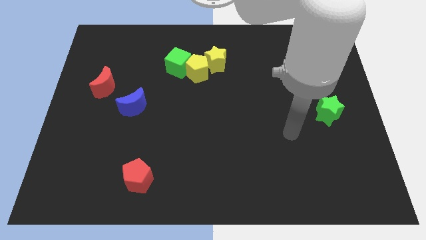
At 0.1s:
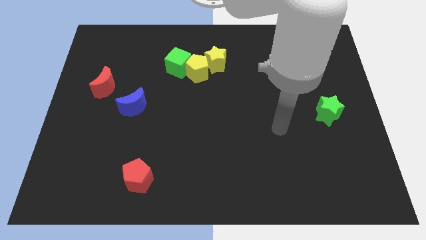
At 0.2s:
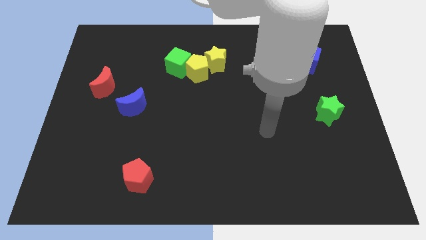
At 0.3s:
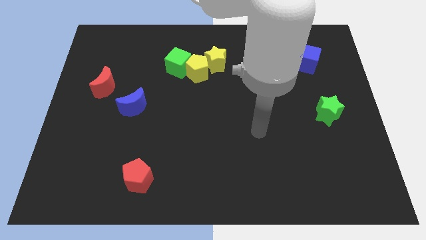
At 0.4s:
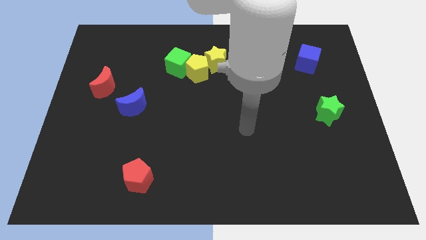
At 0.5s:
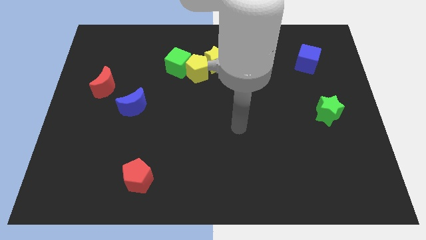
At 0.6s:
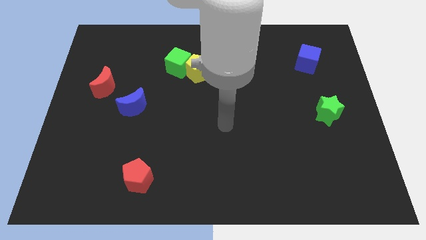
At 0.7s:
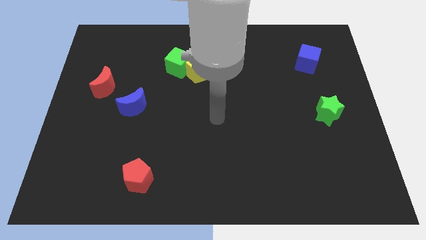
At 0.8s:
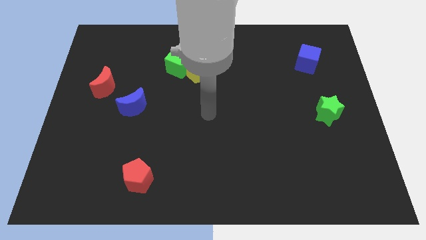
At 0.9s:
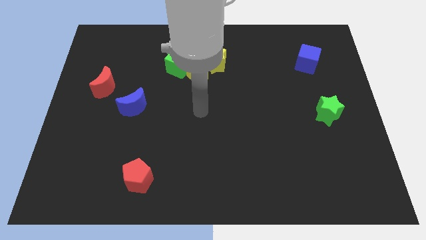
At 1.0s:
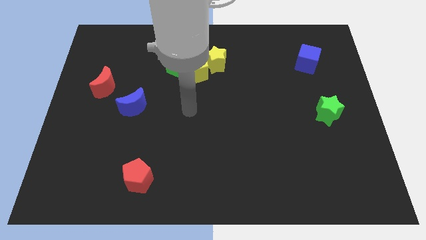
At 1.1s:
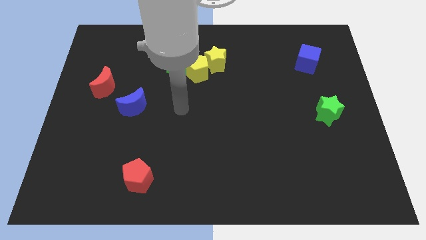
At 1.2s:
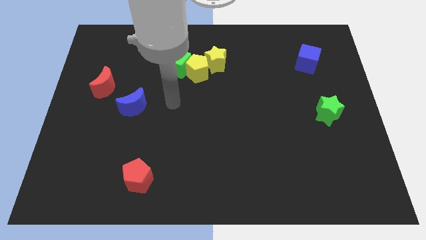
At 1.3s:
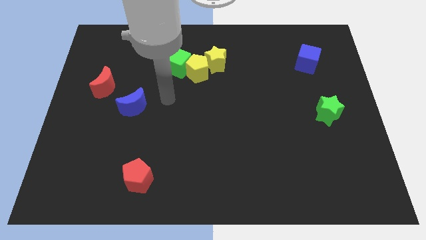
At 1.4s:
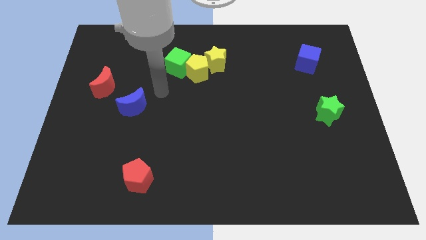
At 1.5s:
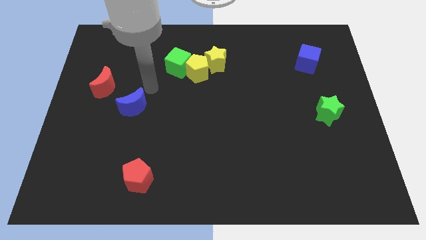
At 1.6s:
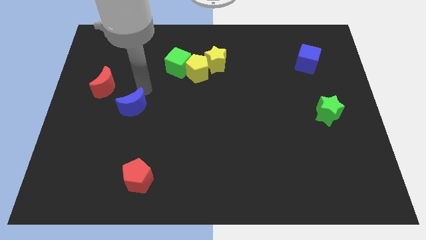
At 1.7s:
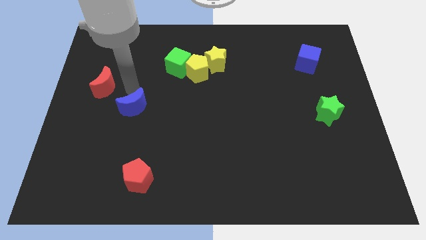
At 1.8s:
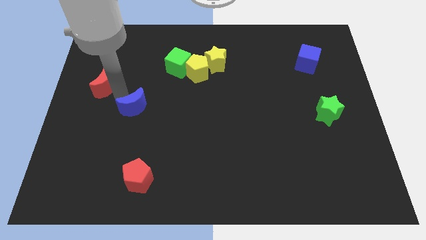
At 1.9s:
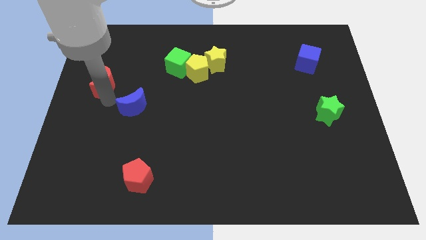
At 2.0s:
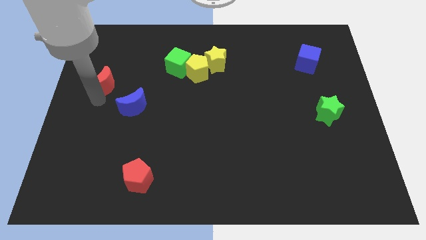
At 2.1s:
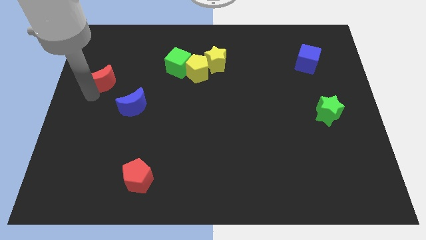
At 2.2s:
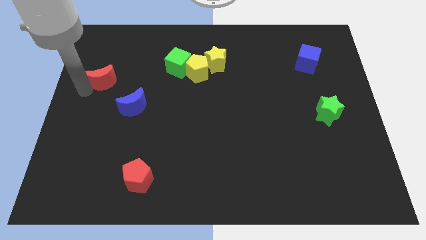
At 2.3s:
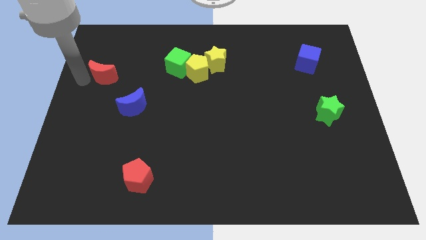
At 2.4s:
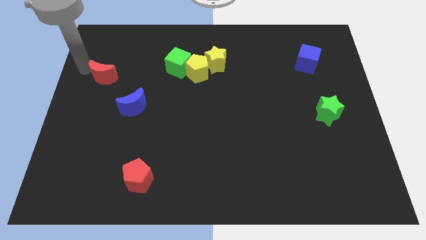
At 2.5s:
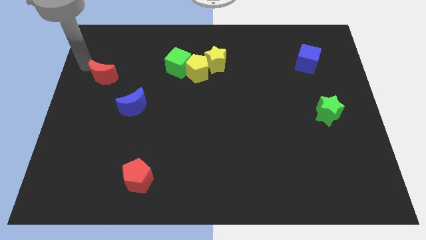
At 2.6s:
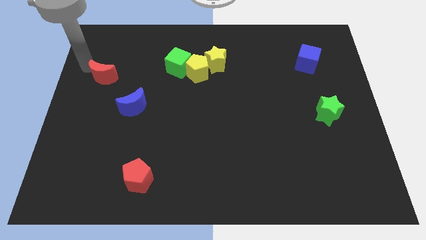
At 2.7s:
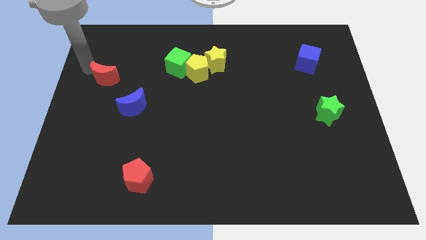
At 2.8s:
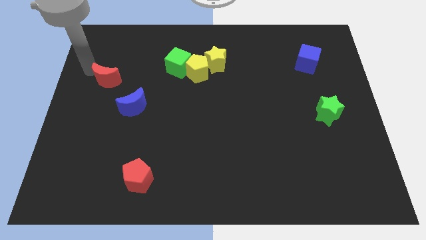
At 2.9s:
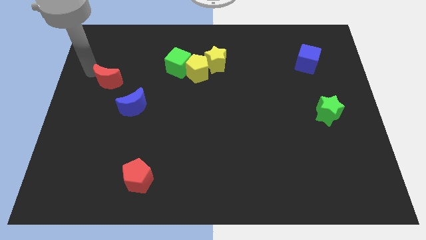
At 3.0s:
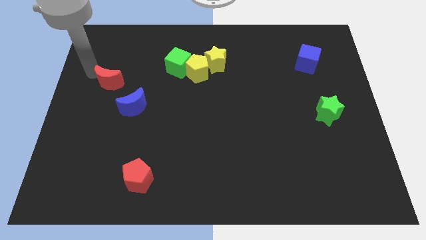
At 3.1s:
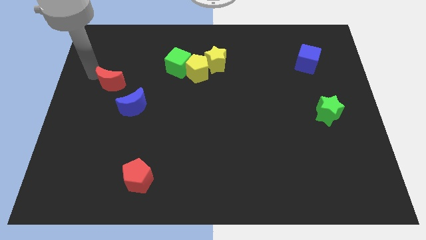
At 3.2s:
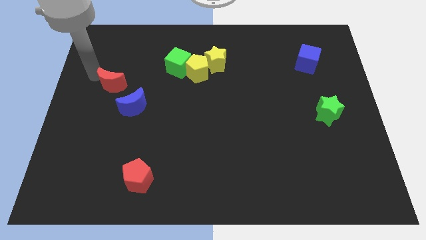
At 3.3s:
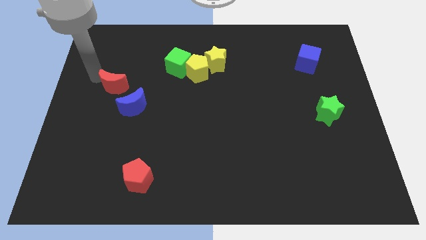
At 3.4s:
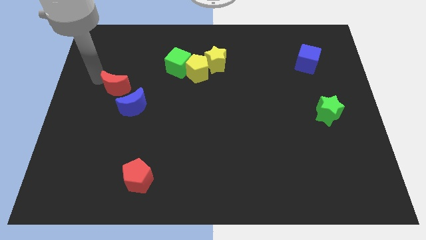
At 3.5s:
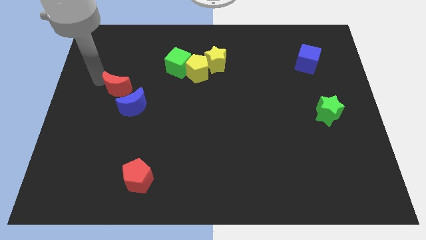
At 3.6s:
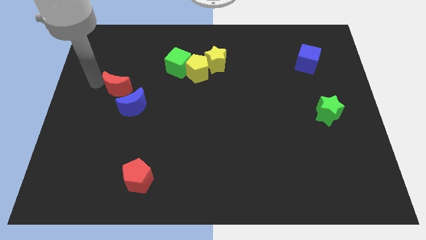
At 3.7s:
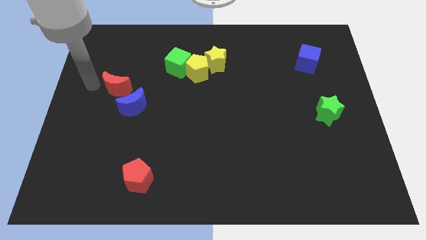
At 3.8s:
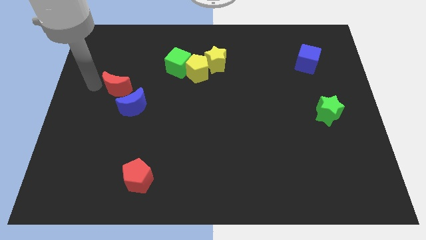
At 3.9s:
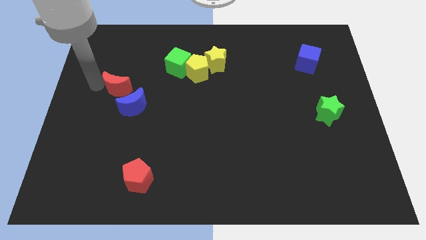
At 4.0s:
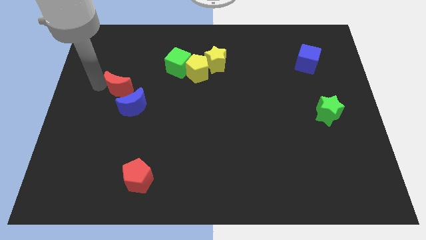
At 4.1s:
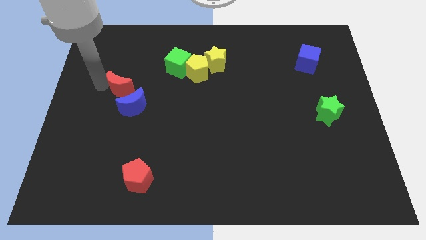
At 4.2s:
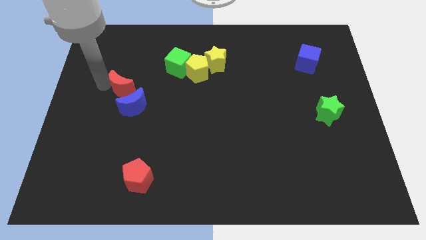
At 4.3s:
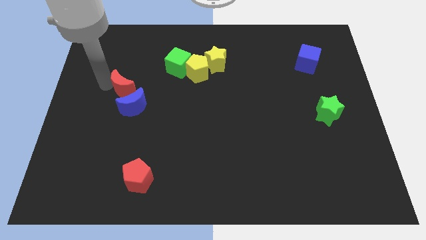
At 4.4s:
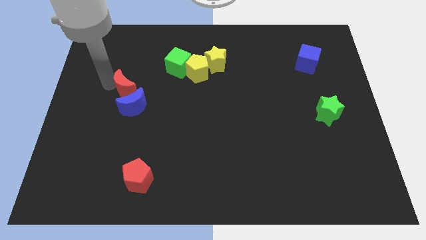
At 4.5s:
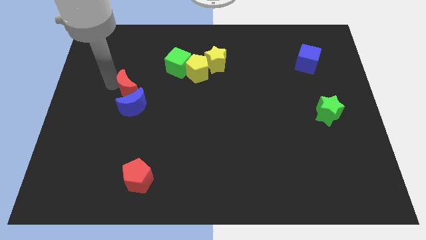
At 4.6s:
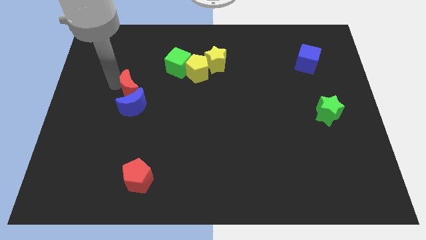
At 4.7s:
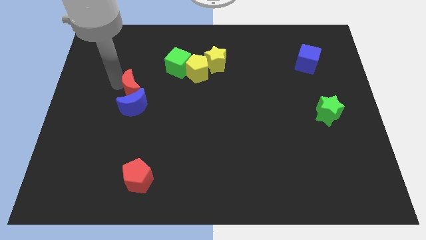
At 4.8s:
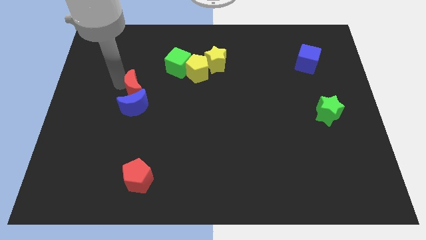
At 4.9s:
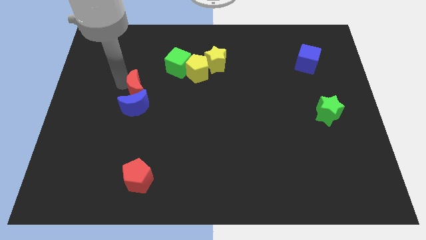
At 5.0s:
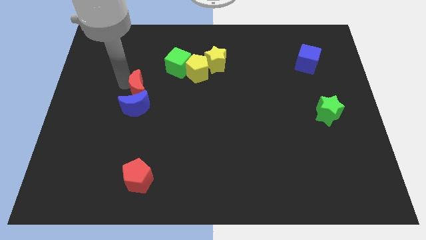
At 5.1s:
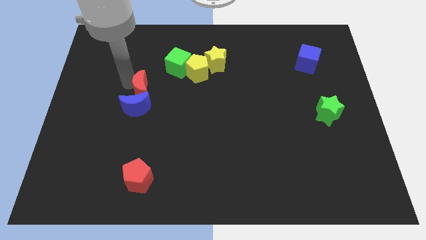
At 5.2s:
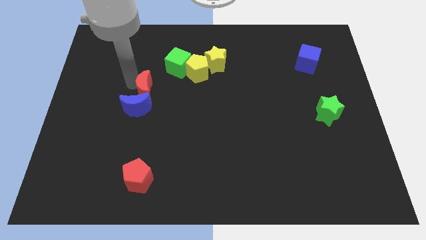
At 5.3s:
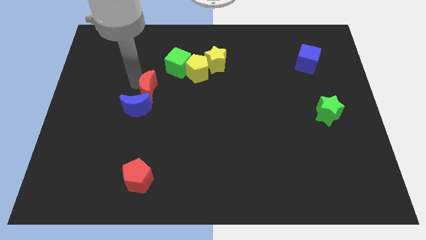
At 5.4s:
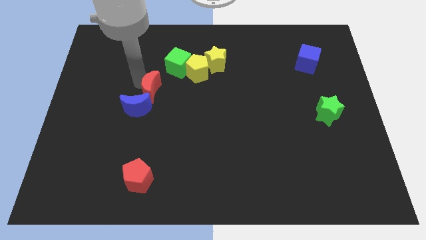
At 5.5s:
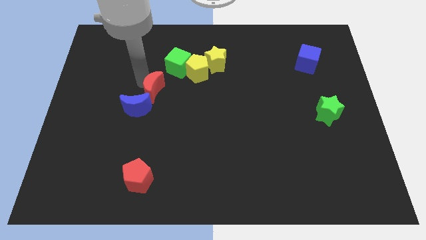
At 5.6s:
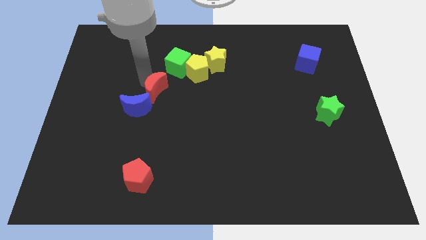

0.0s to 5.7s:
slide the red moon down and right diagonally a little bit

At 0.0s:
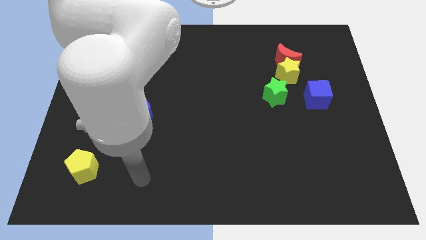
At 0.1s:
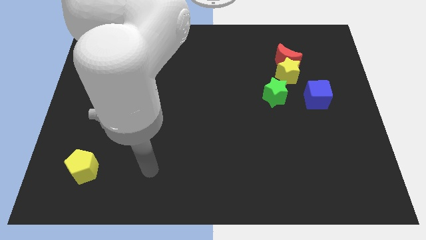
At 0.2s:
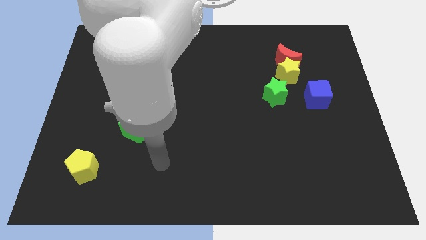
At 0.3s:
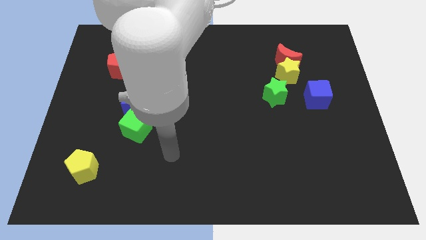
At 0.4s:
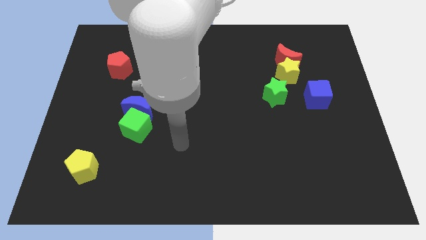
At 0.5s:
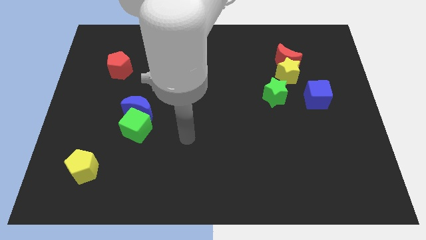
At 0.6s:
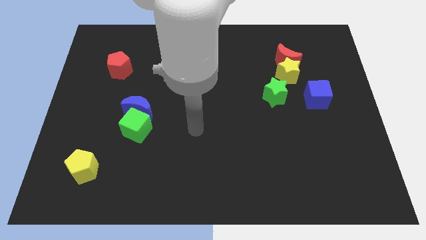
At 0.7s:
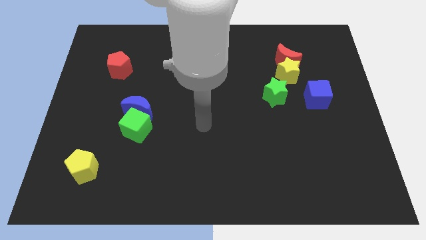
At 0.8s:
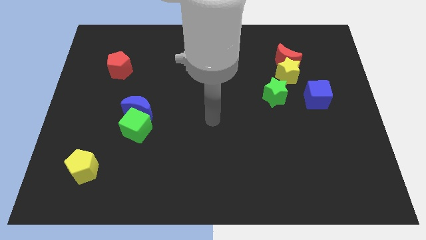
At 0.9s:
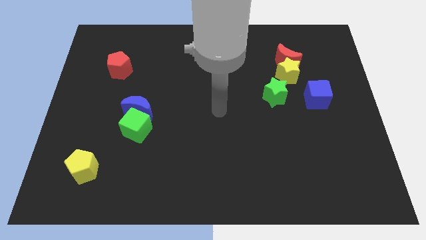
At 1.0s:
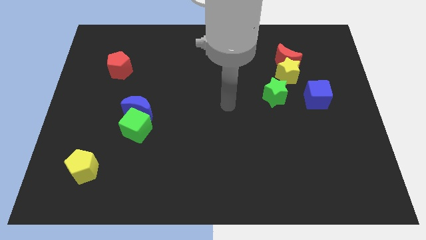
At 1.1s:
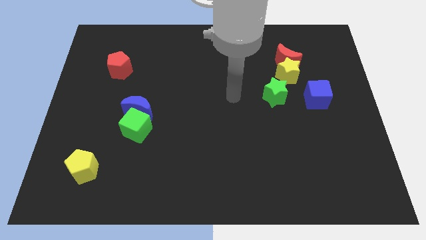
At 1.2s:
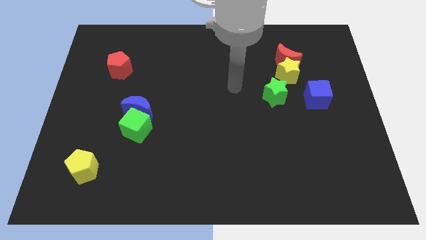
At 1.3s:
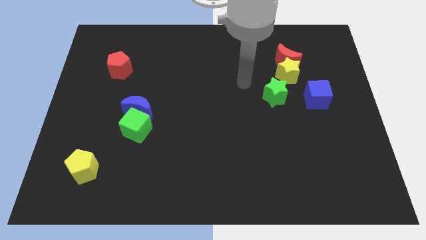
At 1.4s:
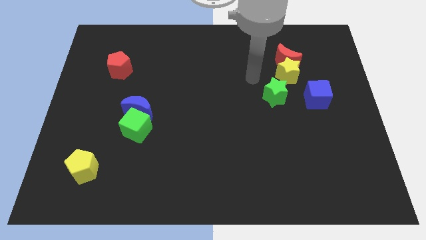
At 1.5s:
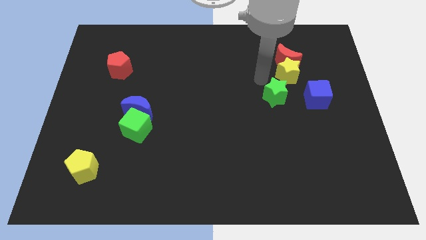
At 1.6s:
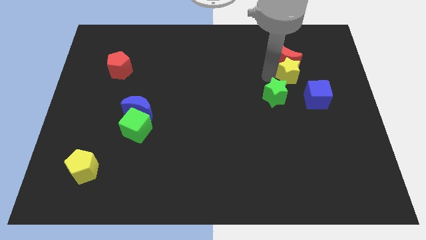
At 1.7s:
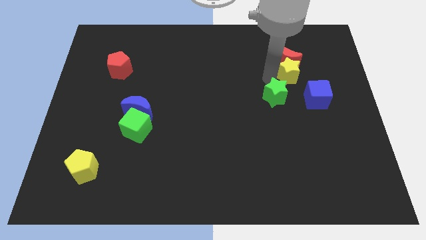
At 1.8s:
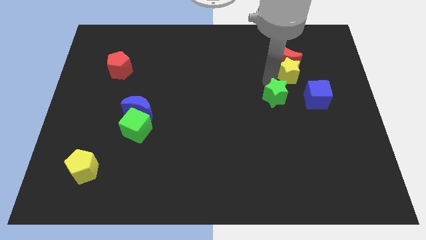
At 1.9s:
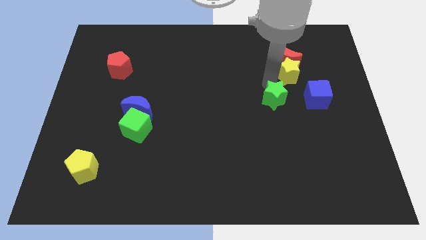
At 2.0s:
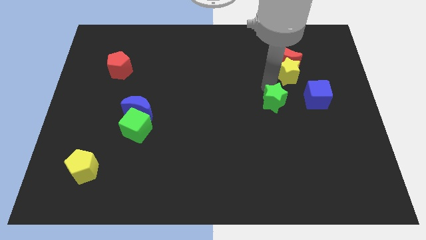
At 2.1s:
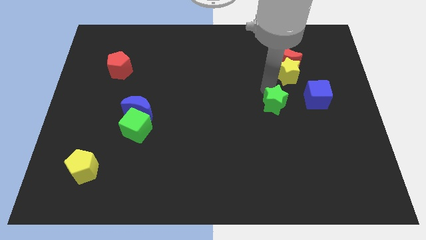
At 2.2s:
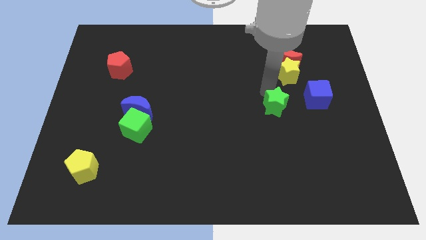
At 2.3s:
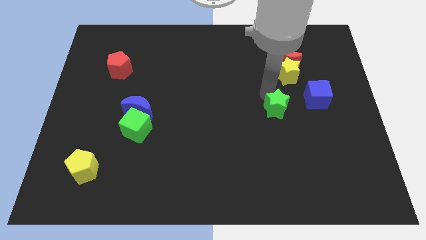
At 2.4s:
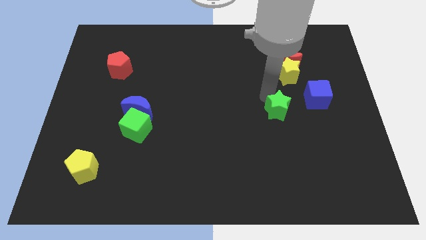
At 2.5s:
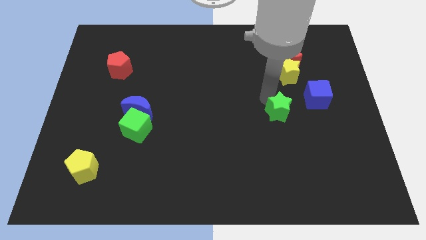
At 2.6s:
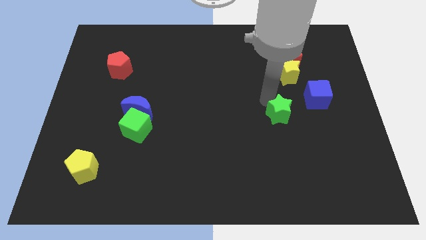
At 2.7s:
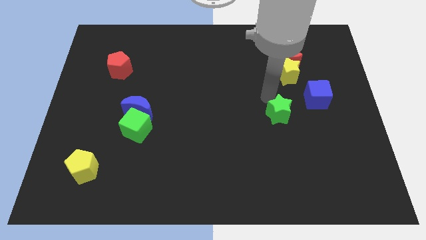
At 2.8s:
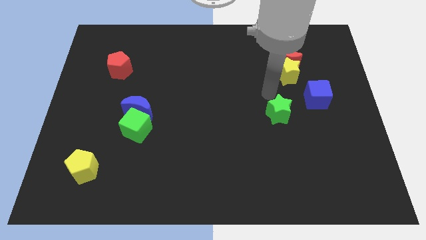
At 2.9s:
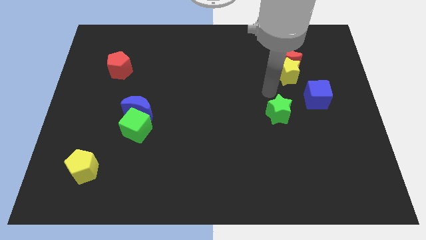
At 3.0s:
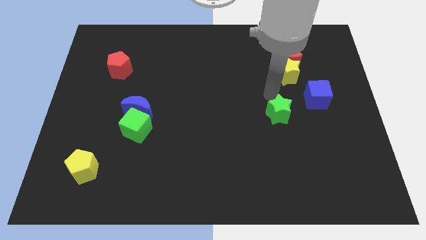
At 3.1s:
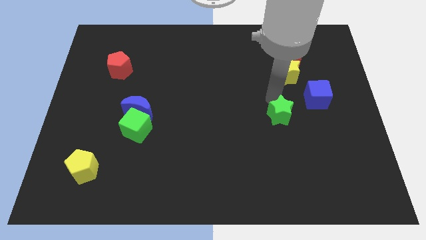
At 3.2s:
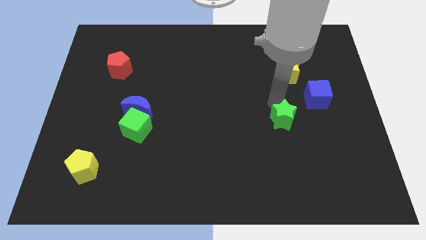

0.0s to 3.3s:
slightly slide the green star down
